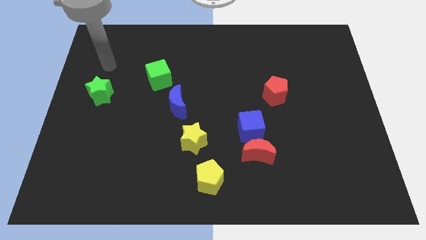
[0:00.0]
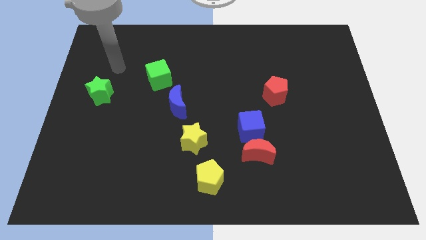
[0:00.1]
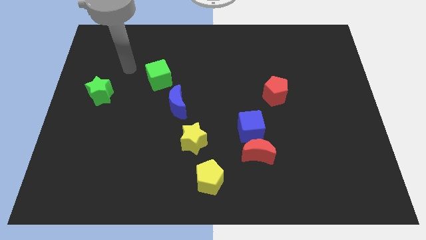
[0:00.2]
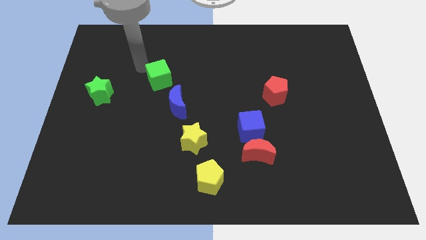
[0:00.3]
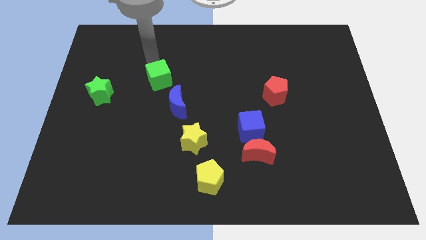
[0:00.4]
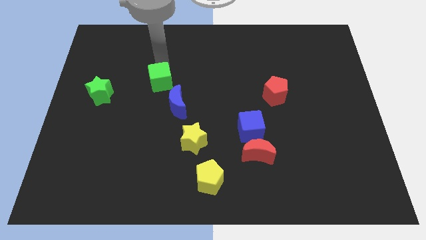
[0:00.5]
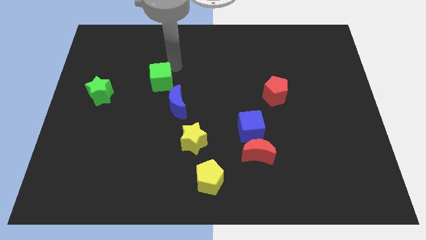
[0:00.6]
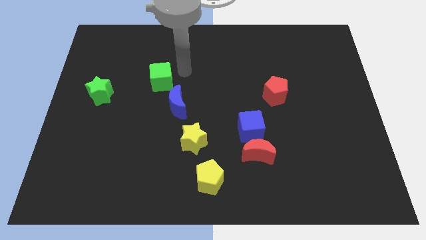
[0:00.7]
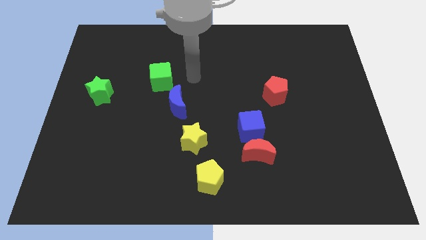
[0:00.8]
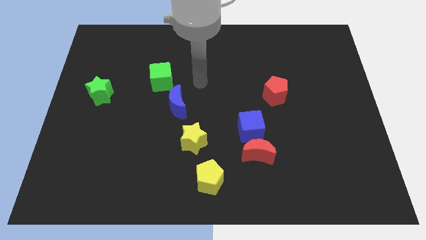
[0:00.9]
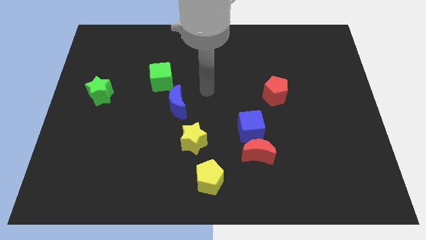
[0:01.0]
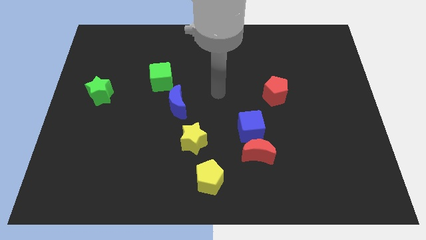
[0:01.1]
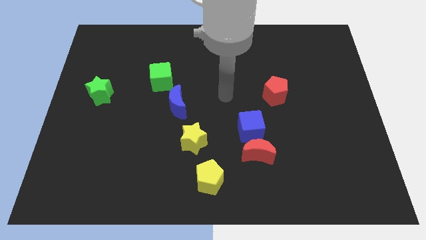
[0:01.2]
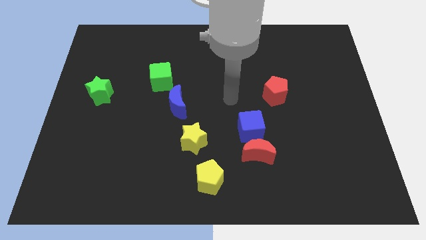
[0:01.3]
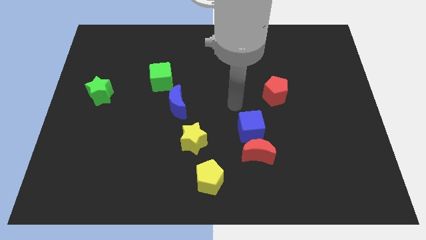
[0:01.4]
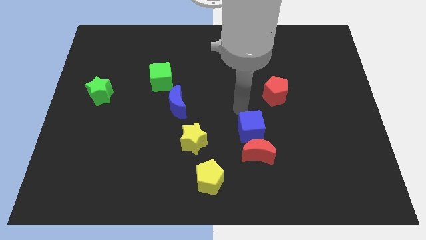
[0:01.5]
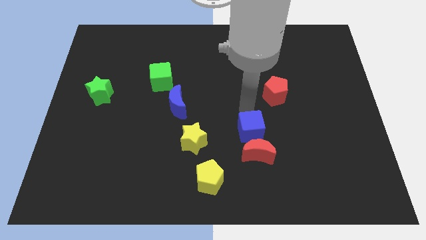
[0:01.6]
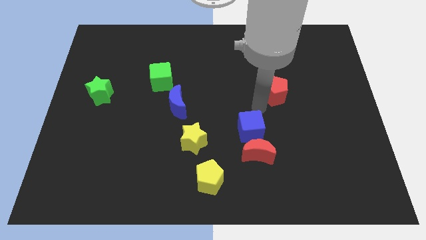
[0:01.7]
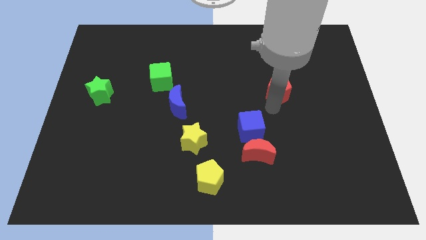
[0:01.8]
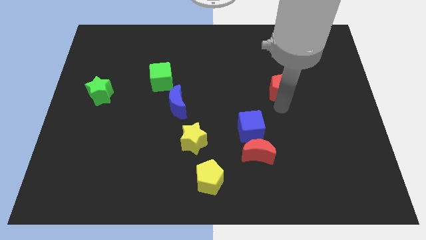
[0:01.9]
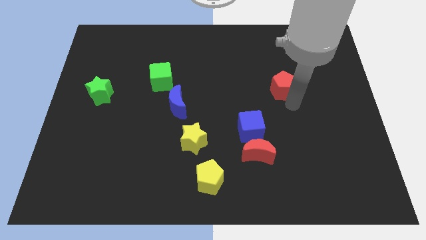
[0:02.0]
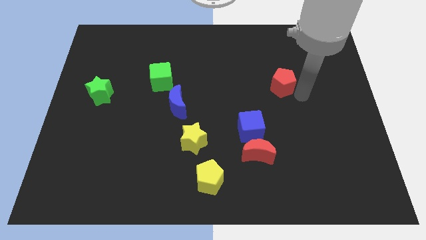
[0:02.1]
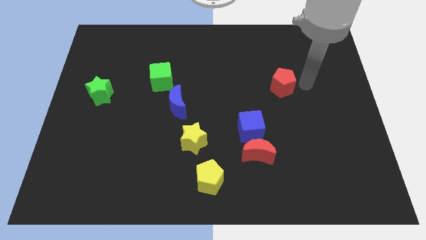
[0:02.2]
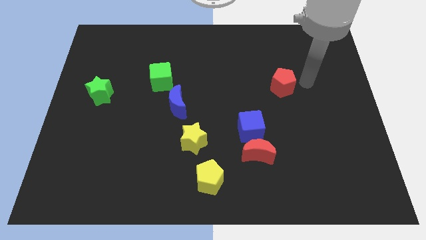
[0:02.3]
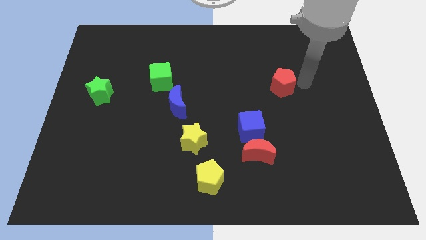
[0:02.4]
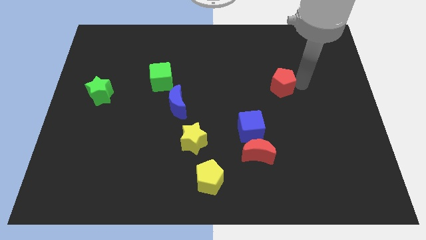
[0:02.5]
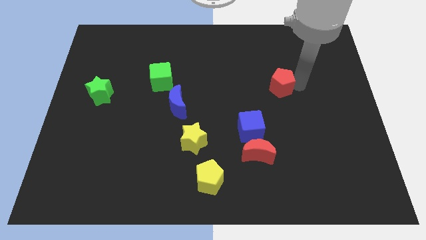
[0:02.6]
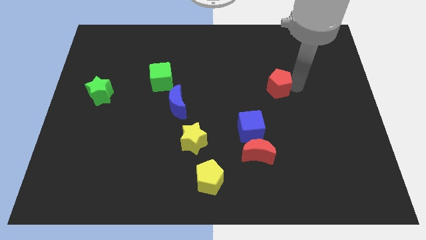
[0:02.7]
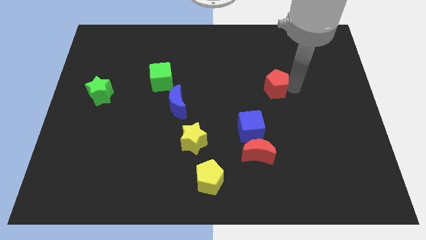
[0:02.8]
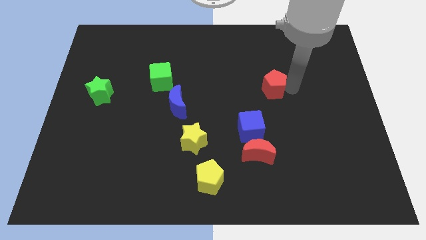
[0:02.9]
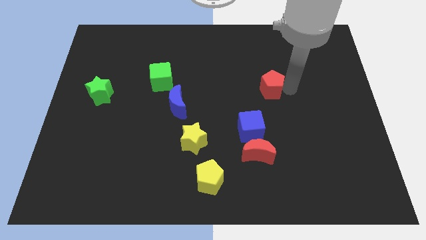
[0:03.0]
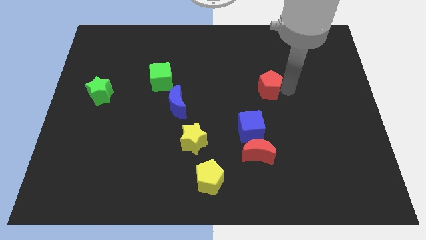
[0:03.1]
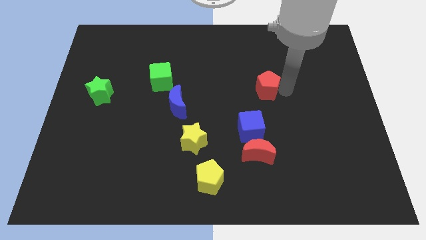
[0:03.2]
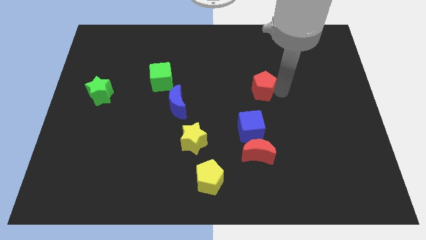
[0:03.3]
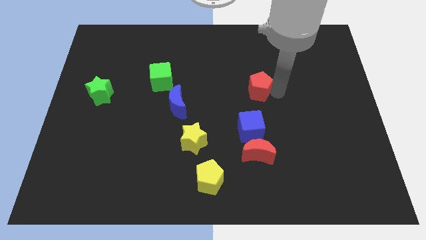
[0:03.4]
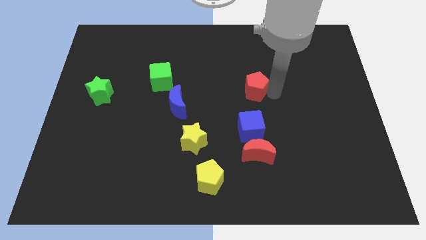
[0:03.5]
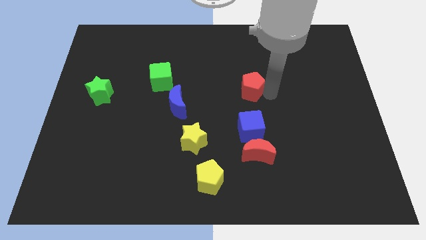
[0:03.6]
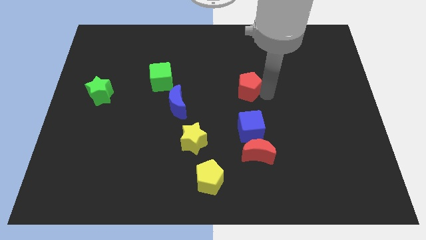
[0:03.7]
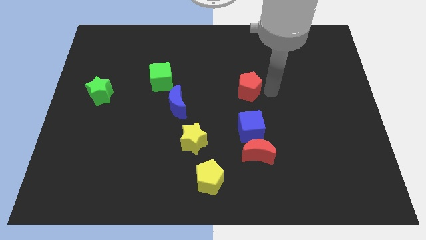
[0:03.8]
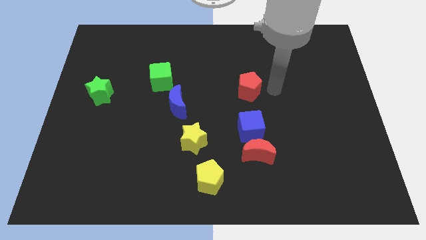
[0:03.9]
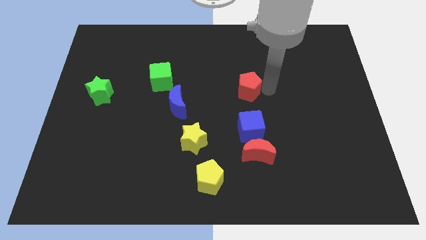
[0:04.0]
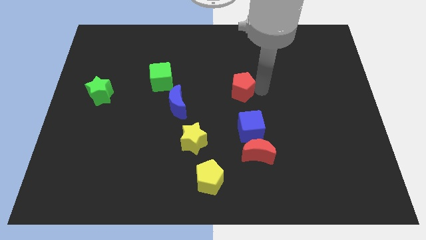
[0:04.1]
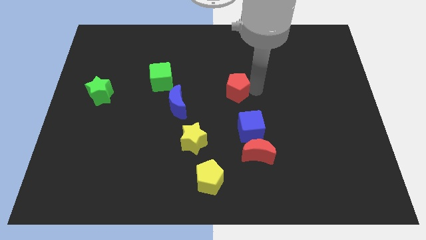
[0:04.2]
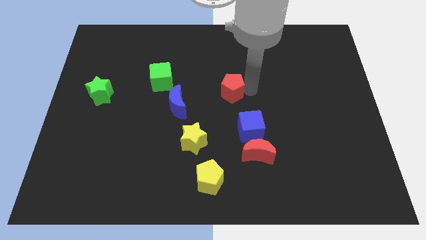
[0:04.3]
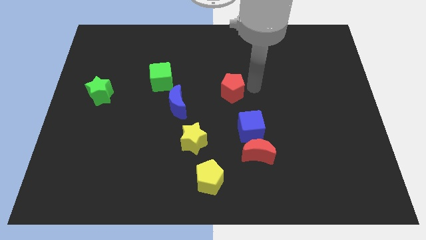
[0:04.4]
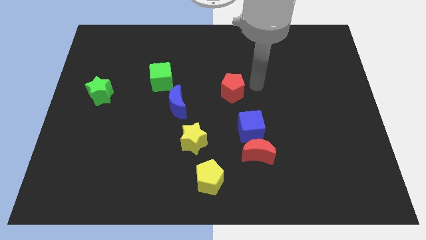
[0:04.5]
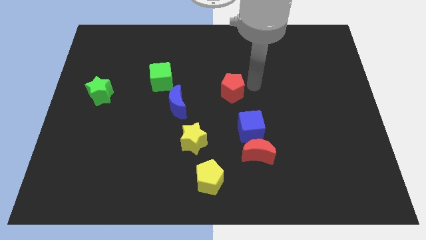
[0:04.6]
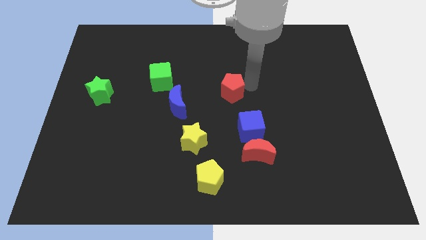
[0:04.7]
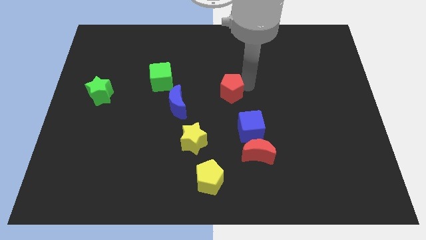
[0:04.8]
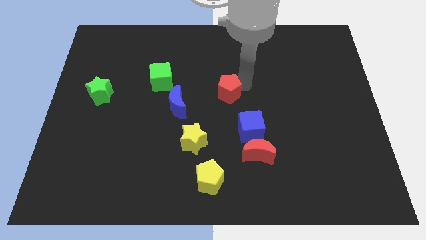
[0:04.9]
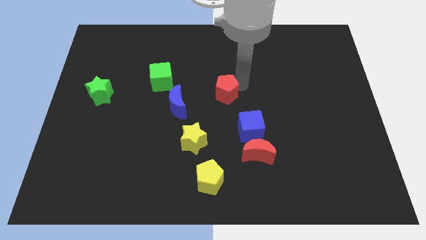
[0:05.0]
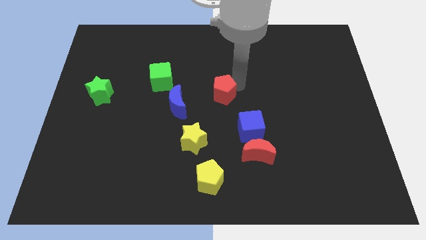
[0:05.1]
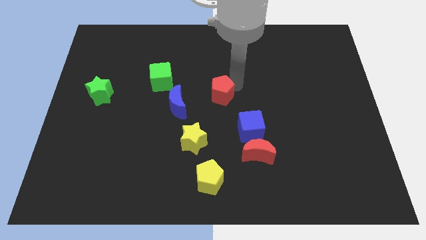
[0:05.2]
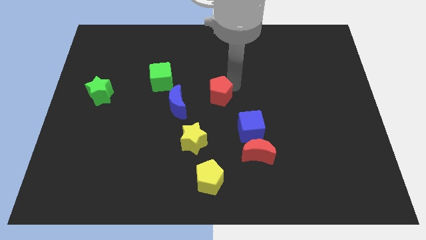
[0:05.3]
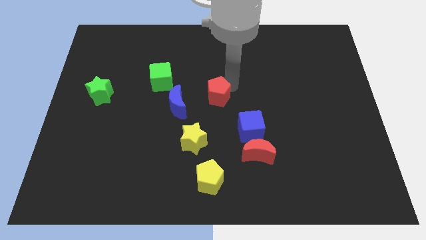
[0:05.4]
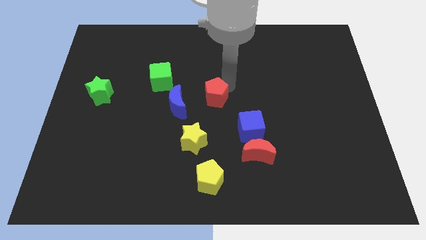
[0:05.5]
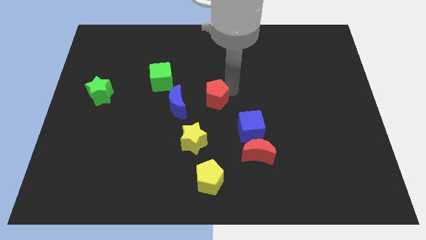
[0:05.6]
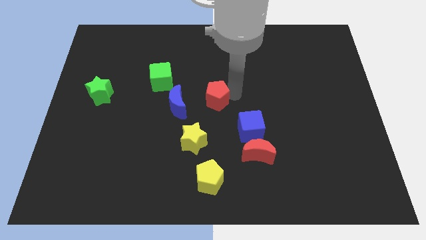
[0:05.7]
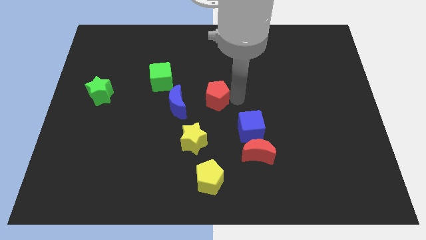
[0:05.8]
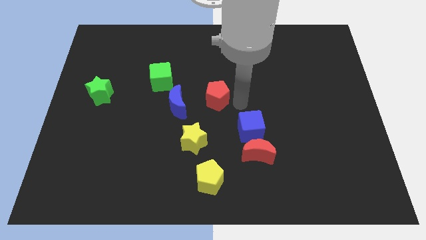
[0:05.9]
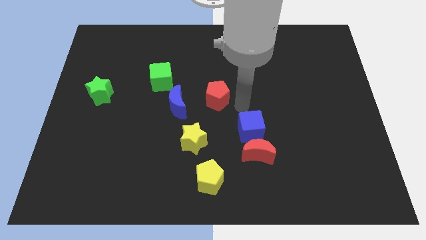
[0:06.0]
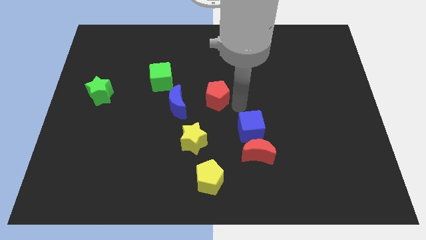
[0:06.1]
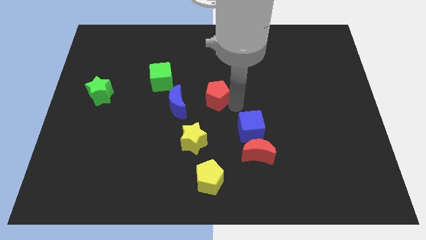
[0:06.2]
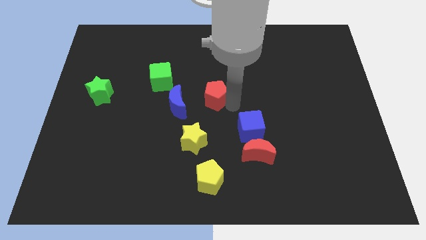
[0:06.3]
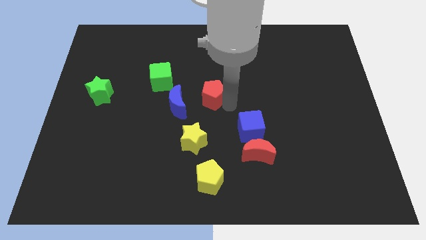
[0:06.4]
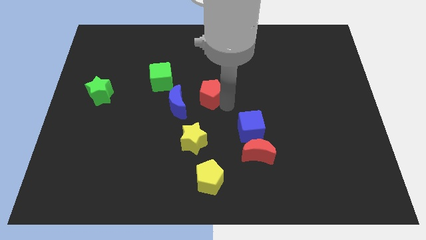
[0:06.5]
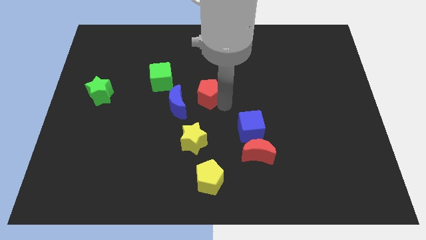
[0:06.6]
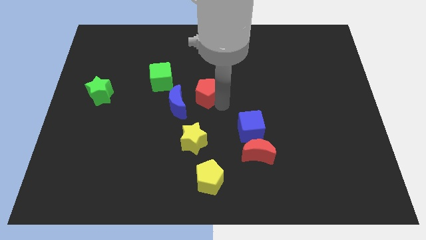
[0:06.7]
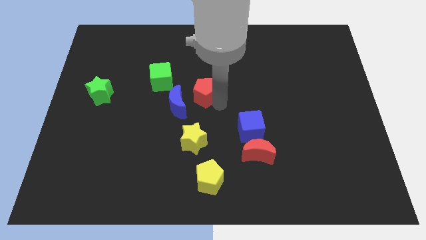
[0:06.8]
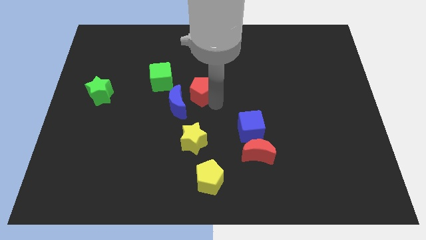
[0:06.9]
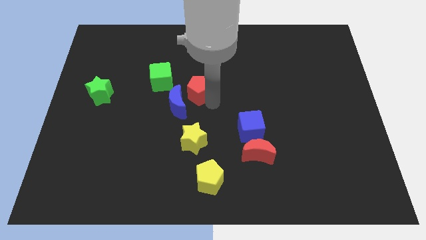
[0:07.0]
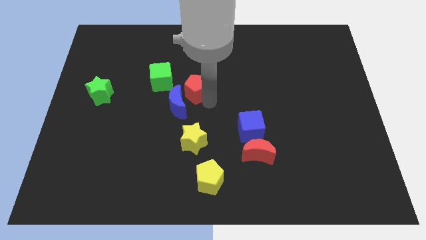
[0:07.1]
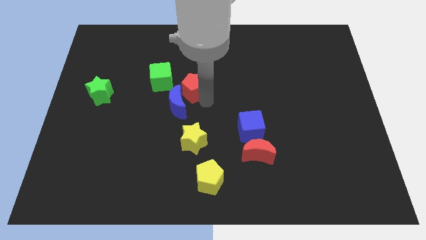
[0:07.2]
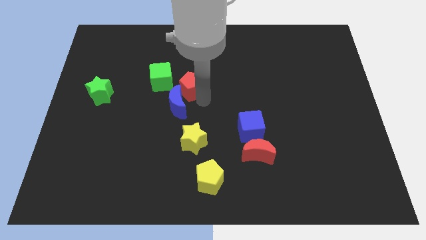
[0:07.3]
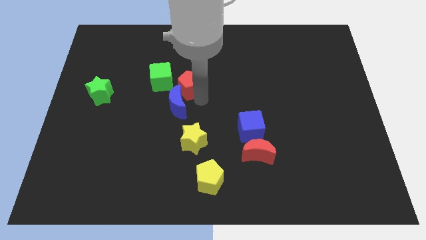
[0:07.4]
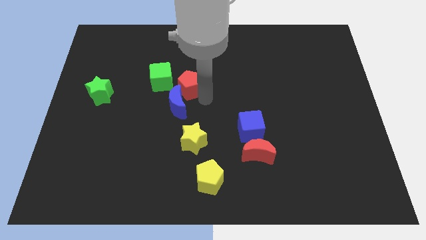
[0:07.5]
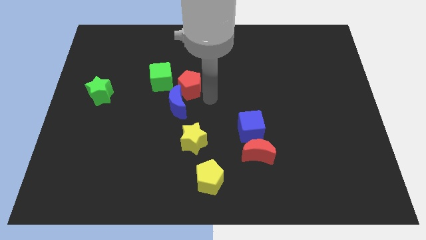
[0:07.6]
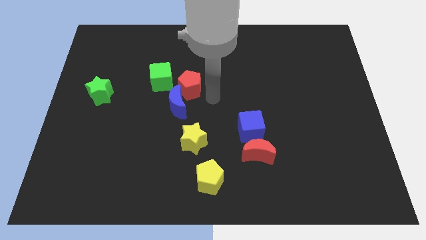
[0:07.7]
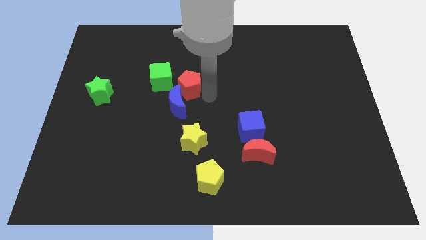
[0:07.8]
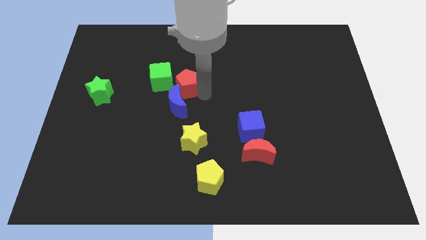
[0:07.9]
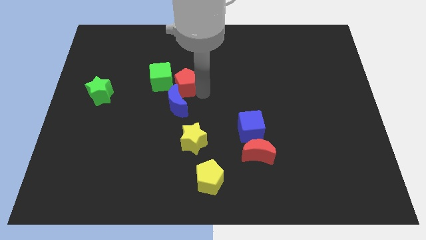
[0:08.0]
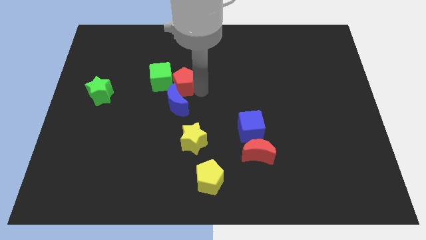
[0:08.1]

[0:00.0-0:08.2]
slide the red pentagon to the green cube
